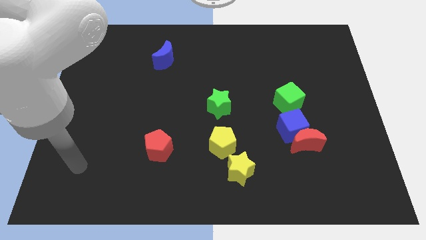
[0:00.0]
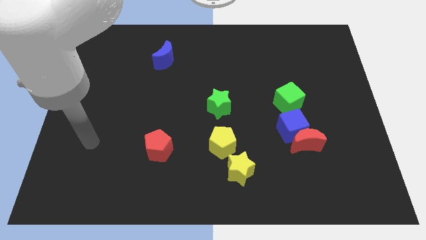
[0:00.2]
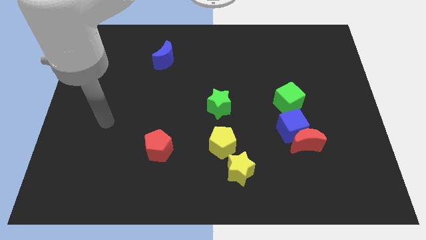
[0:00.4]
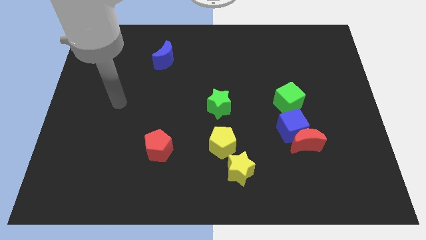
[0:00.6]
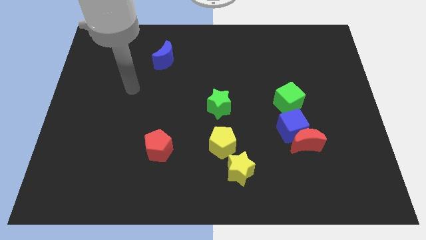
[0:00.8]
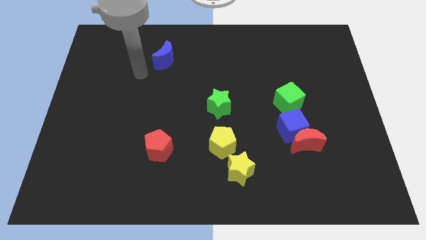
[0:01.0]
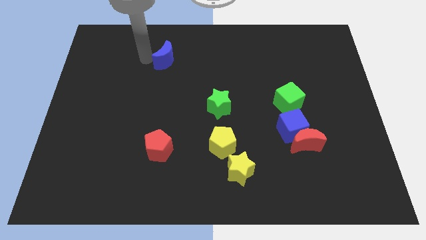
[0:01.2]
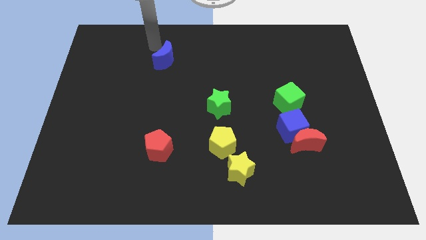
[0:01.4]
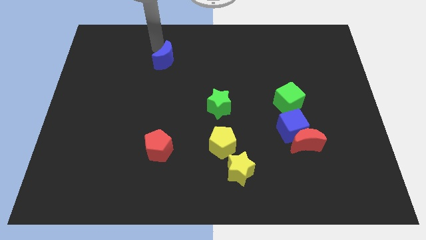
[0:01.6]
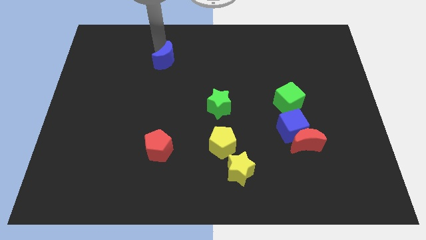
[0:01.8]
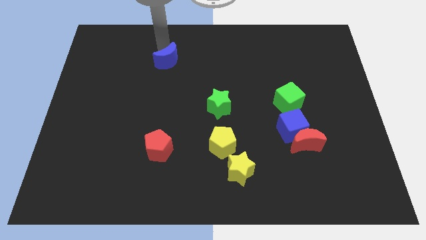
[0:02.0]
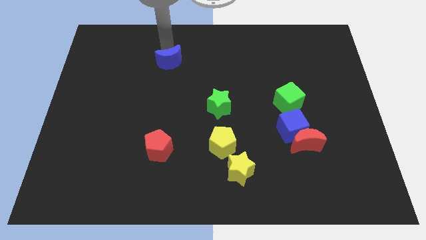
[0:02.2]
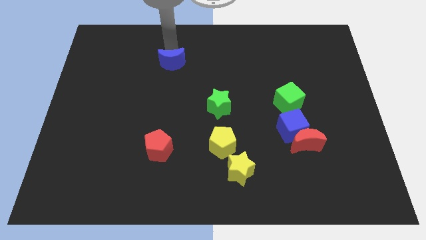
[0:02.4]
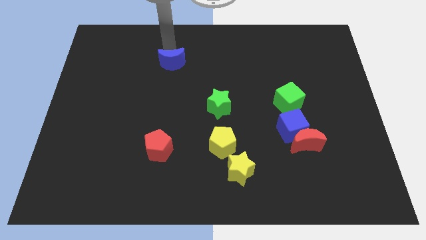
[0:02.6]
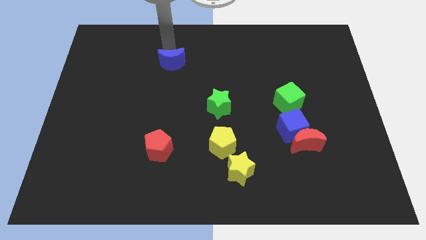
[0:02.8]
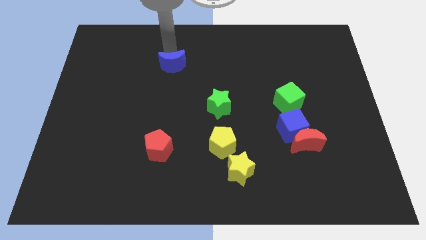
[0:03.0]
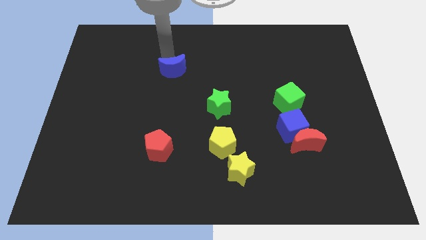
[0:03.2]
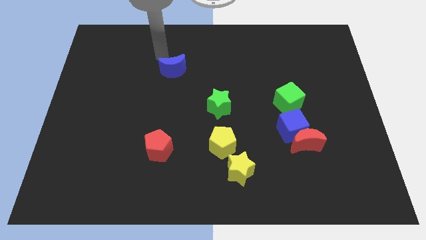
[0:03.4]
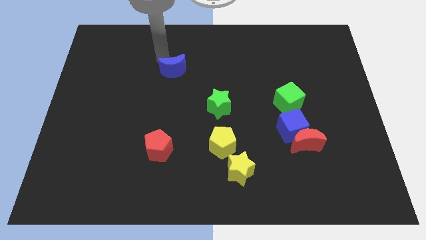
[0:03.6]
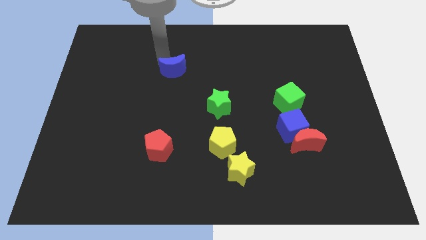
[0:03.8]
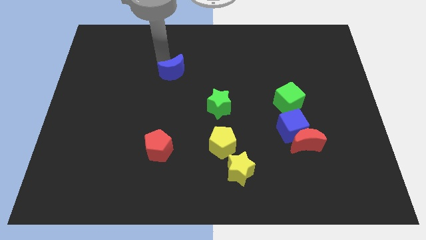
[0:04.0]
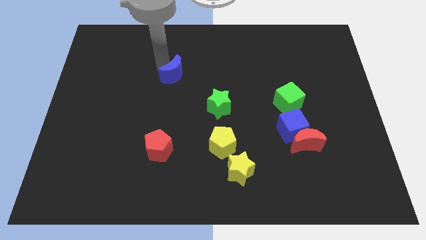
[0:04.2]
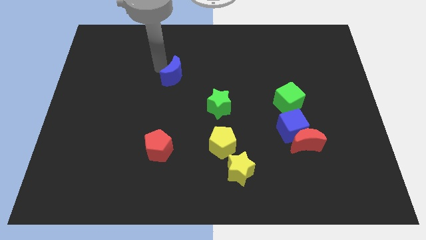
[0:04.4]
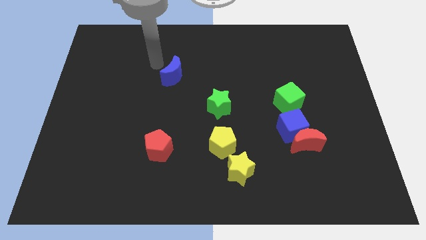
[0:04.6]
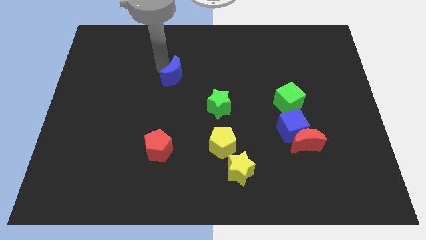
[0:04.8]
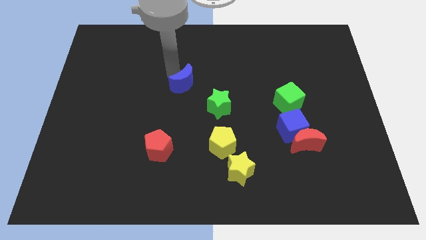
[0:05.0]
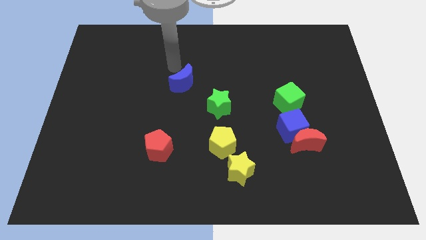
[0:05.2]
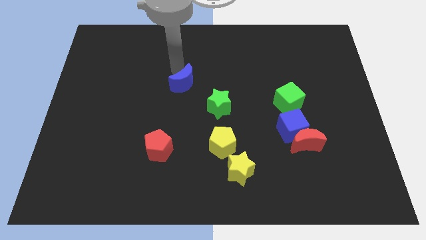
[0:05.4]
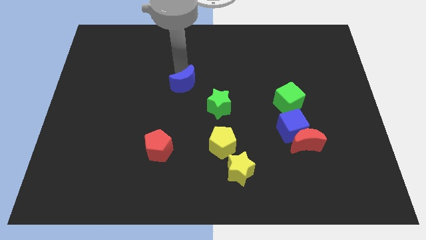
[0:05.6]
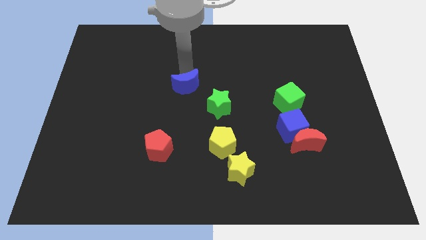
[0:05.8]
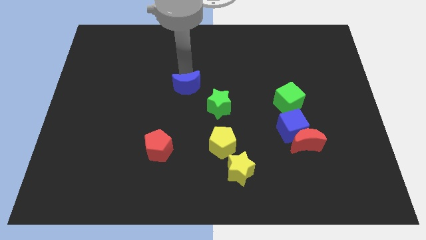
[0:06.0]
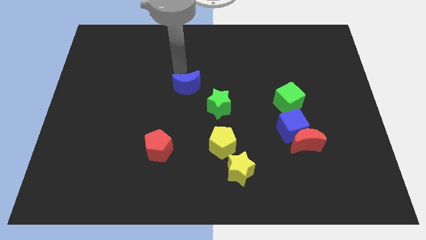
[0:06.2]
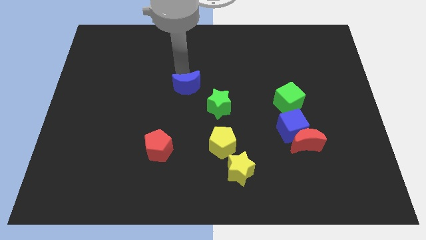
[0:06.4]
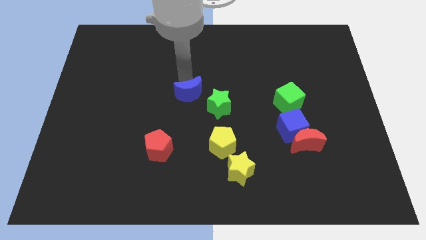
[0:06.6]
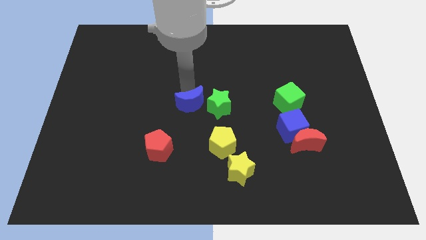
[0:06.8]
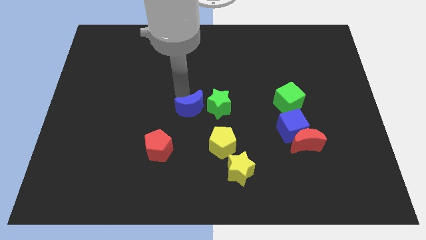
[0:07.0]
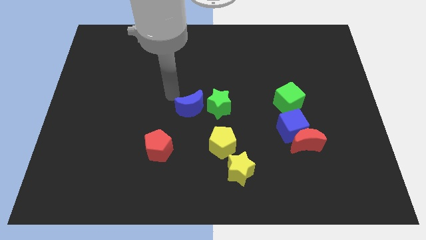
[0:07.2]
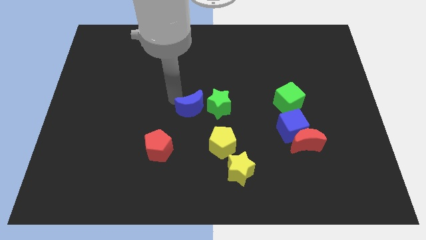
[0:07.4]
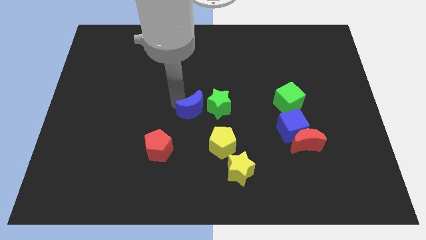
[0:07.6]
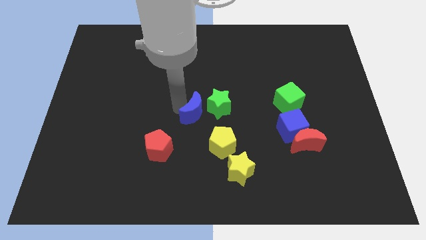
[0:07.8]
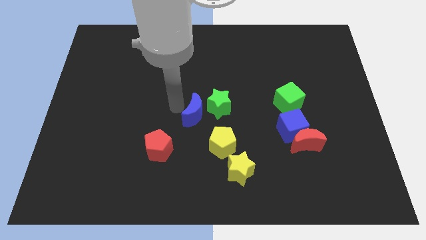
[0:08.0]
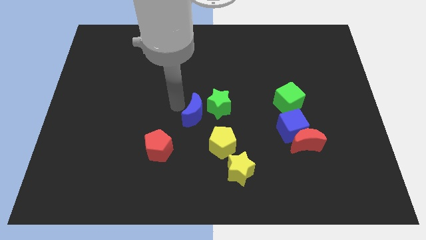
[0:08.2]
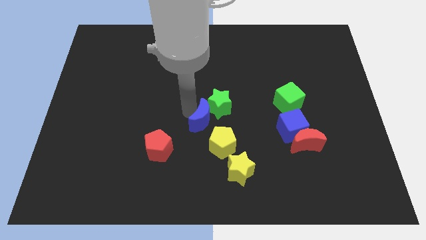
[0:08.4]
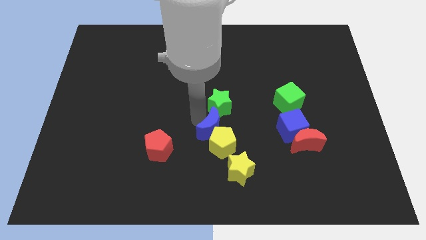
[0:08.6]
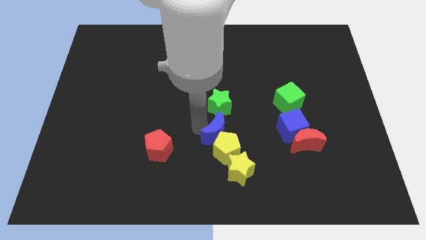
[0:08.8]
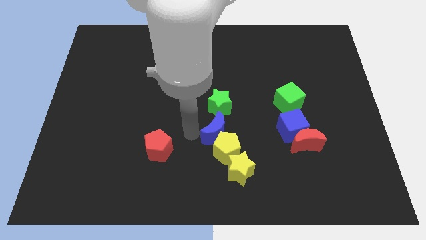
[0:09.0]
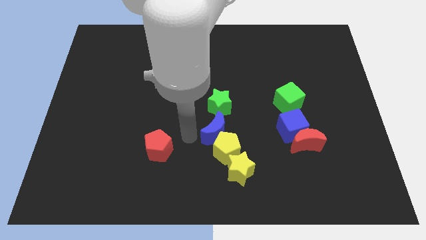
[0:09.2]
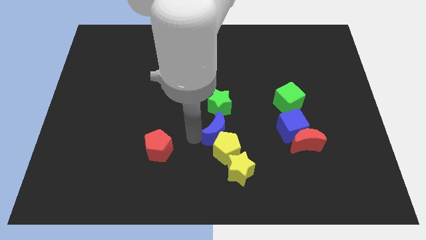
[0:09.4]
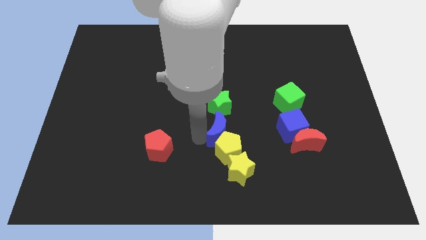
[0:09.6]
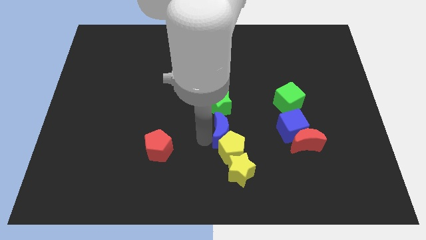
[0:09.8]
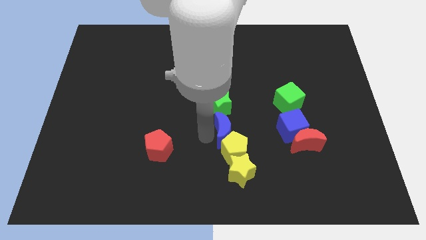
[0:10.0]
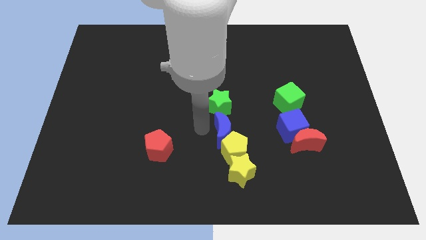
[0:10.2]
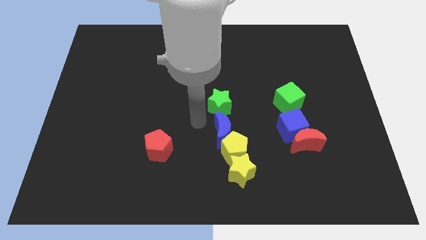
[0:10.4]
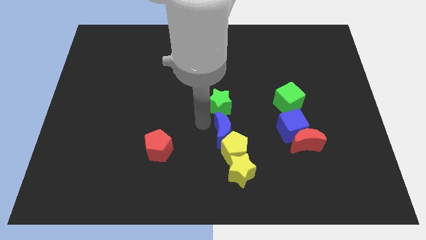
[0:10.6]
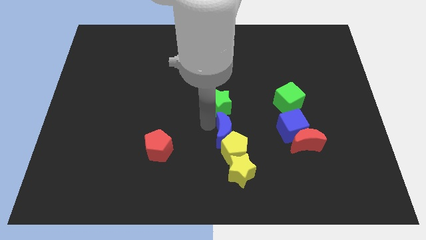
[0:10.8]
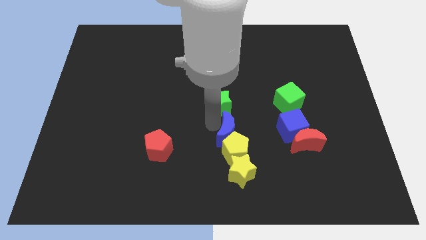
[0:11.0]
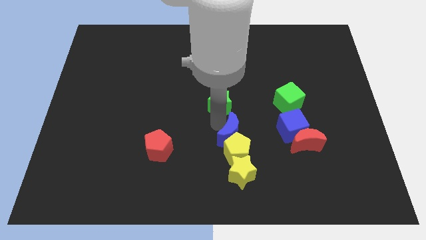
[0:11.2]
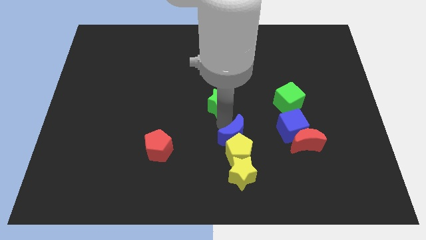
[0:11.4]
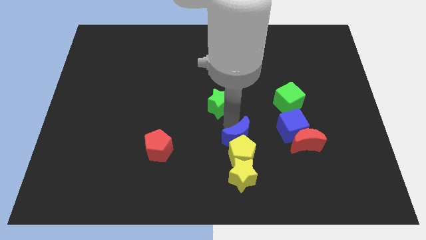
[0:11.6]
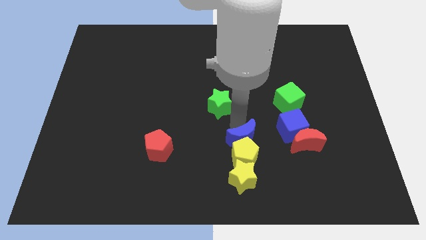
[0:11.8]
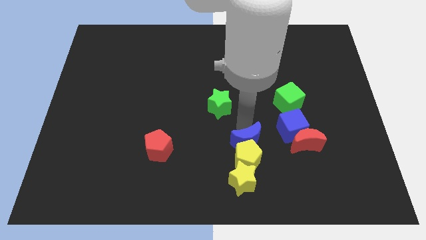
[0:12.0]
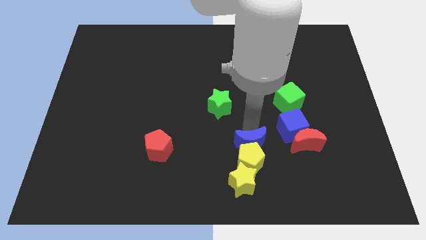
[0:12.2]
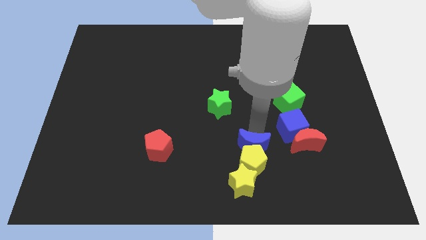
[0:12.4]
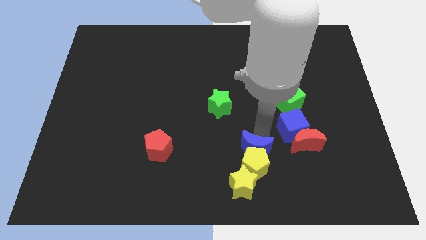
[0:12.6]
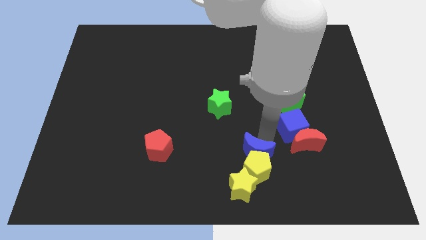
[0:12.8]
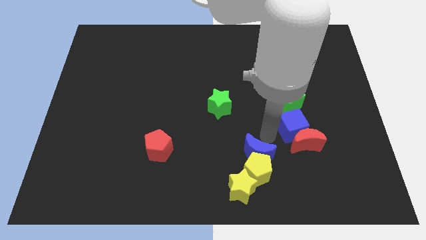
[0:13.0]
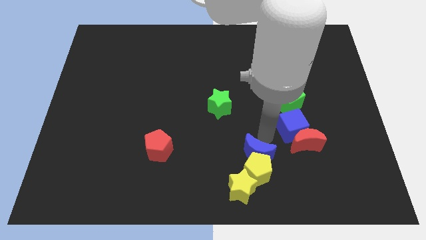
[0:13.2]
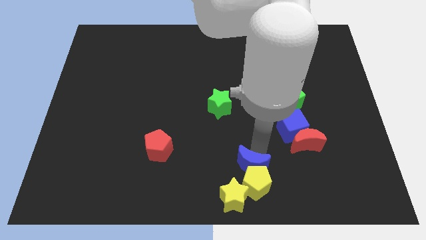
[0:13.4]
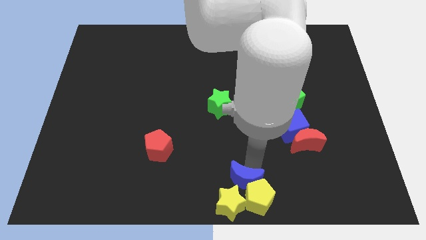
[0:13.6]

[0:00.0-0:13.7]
push the blue moon towards the yellow star
